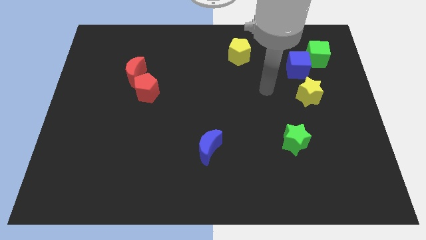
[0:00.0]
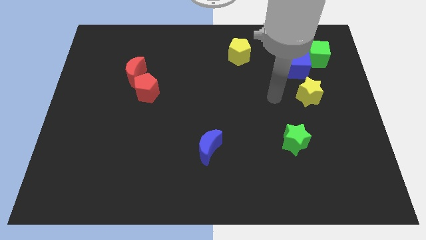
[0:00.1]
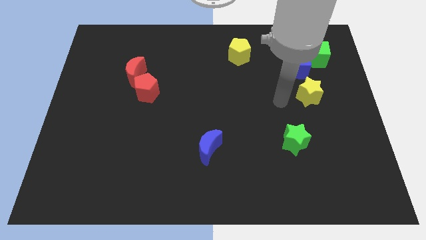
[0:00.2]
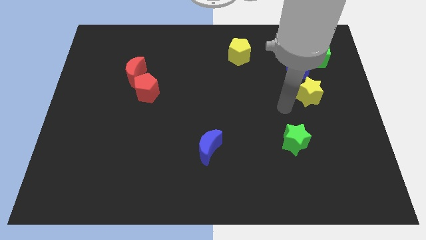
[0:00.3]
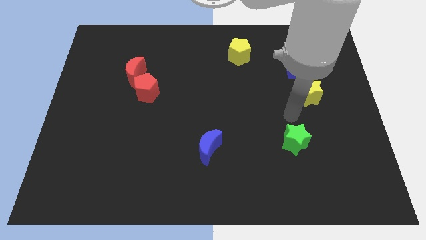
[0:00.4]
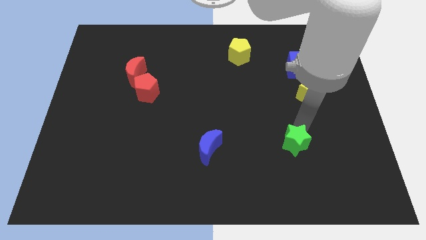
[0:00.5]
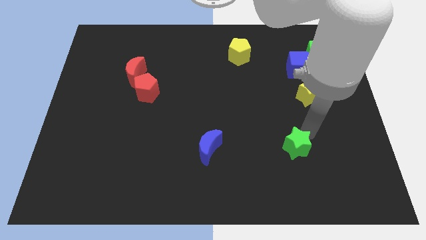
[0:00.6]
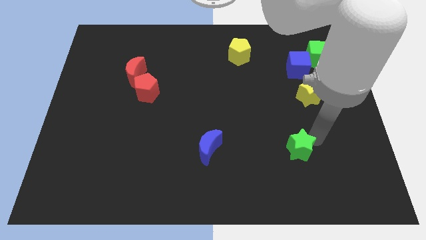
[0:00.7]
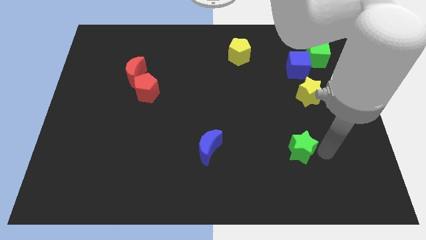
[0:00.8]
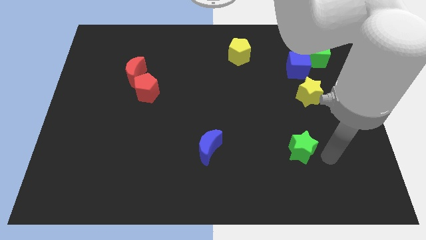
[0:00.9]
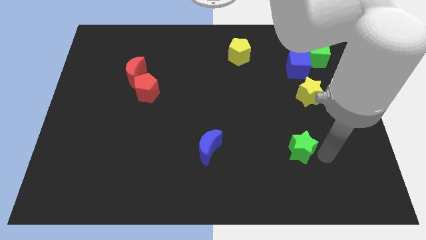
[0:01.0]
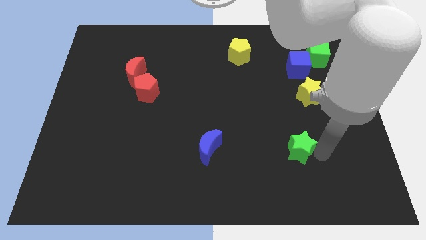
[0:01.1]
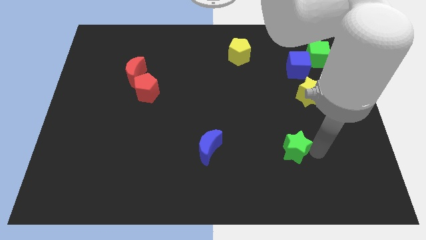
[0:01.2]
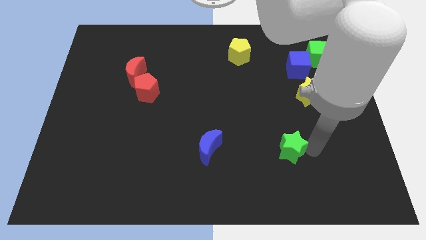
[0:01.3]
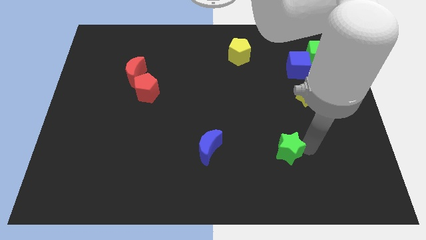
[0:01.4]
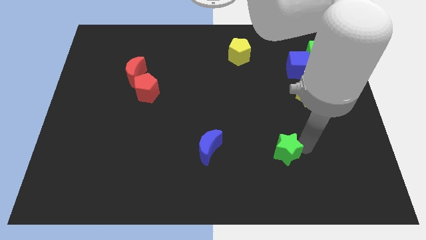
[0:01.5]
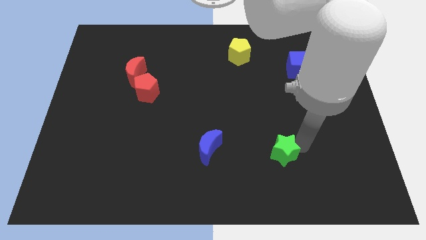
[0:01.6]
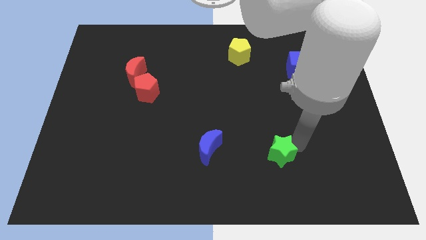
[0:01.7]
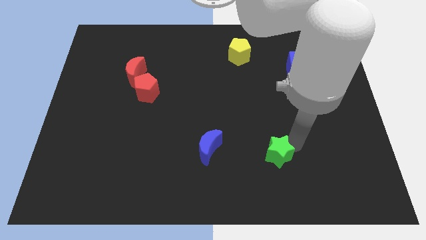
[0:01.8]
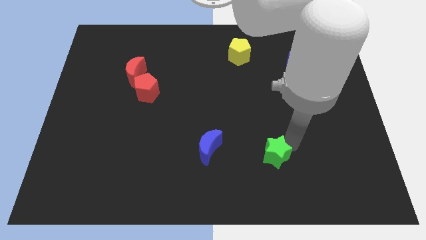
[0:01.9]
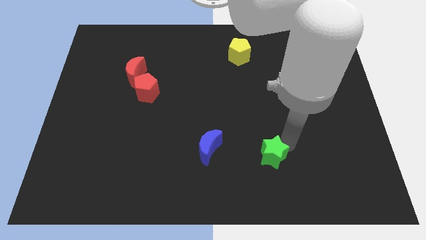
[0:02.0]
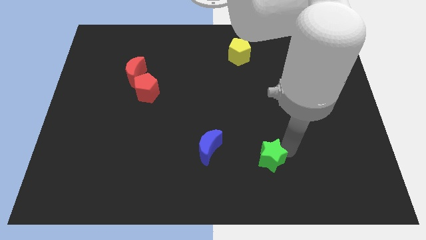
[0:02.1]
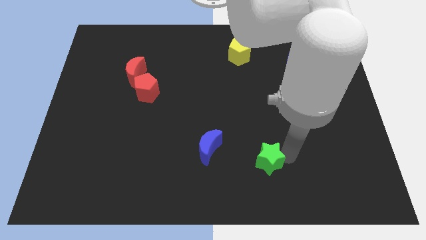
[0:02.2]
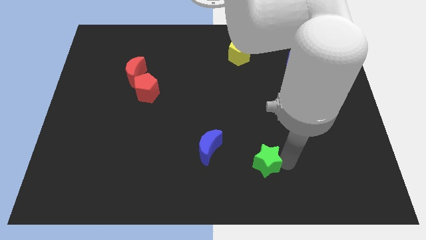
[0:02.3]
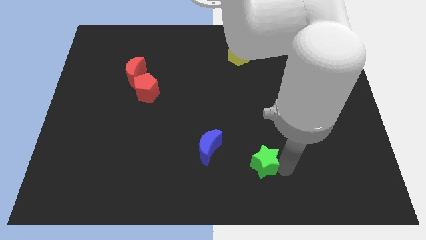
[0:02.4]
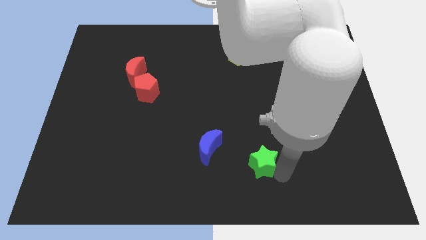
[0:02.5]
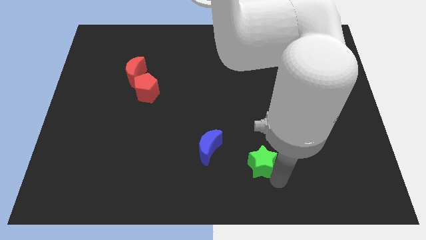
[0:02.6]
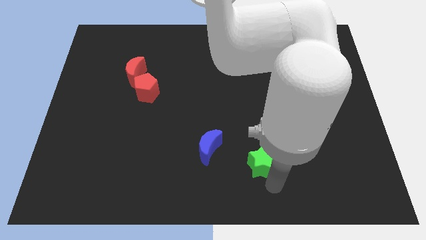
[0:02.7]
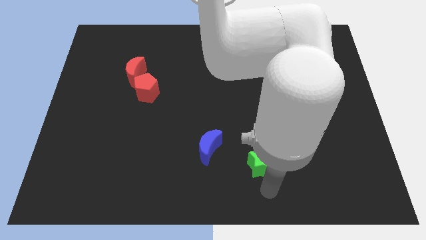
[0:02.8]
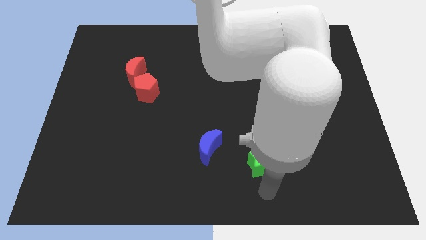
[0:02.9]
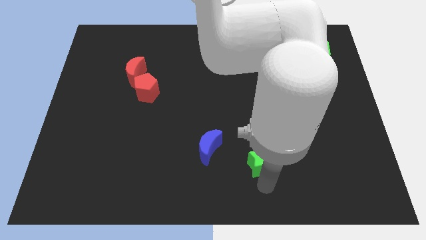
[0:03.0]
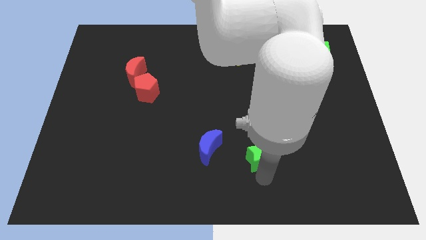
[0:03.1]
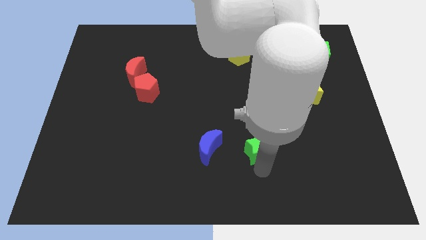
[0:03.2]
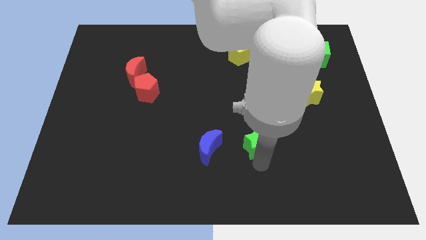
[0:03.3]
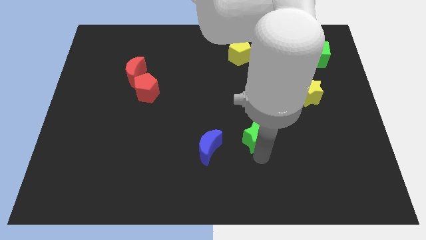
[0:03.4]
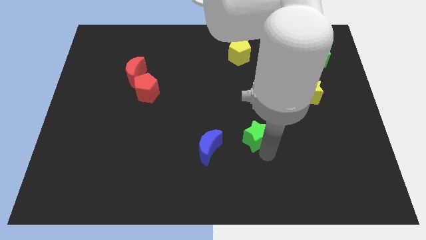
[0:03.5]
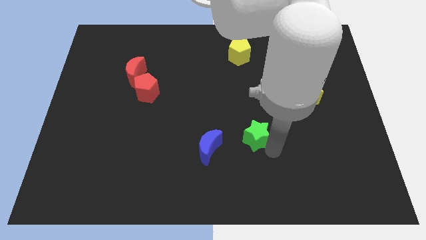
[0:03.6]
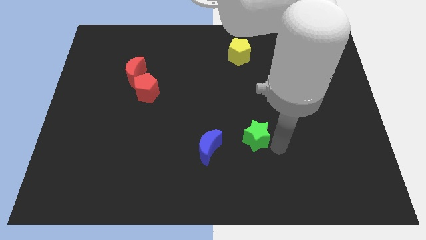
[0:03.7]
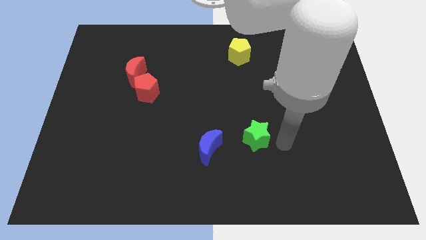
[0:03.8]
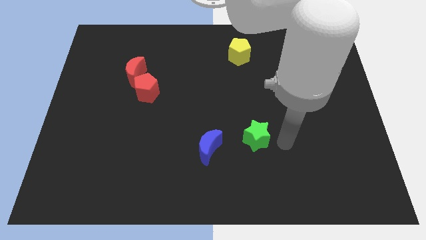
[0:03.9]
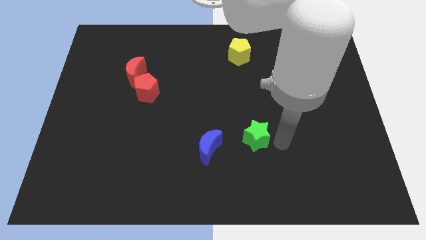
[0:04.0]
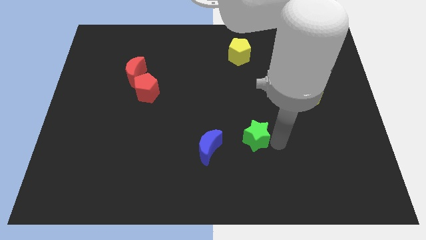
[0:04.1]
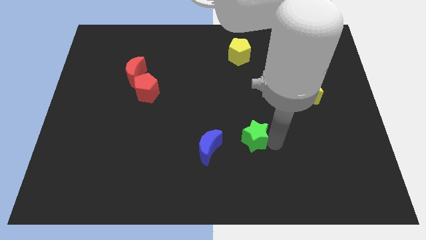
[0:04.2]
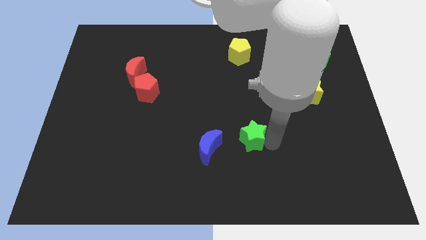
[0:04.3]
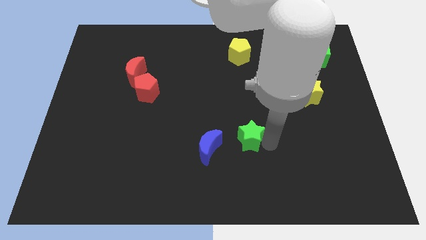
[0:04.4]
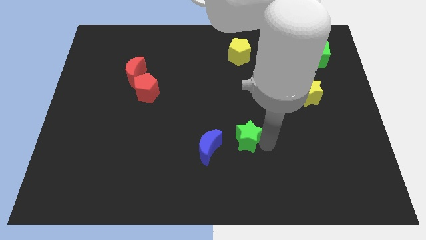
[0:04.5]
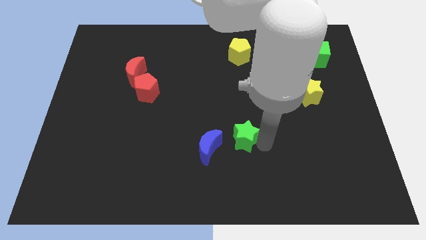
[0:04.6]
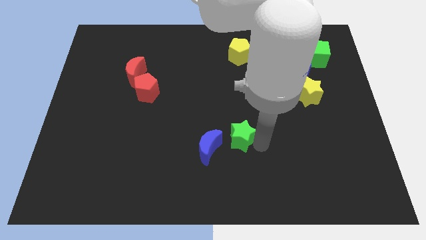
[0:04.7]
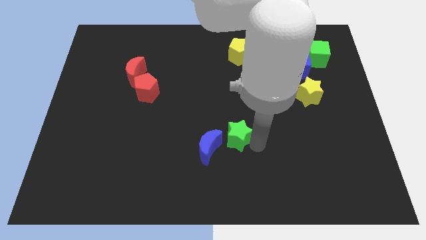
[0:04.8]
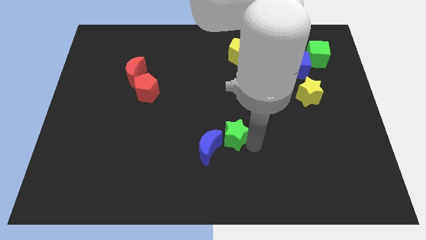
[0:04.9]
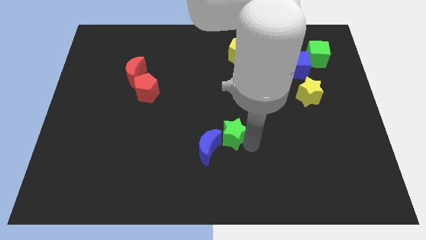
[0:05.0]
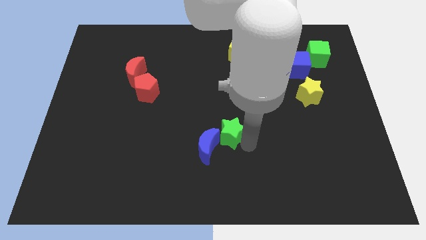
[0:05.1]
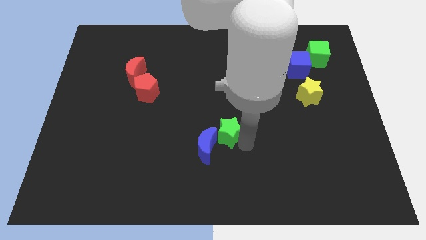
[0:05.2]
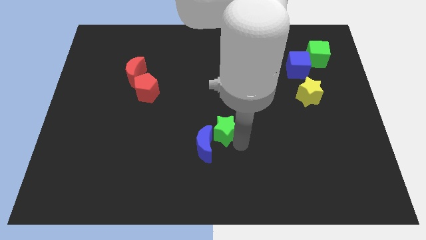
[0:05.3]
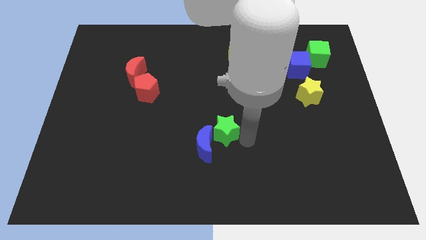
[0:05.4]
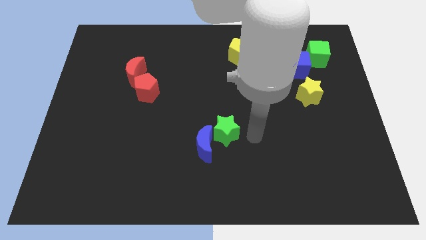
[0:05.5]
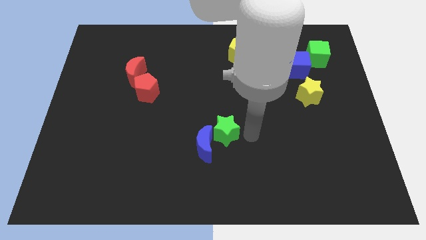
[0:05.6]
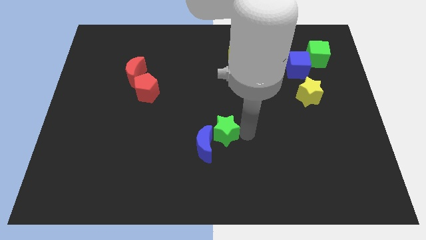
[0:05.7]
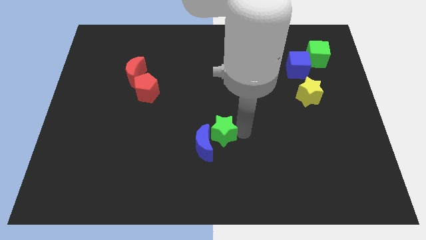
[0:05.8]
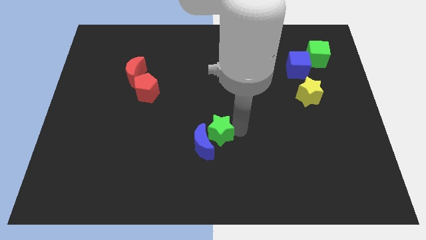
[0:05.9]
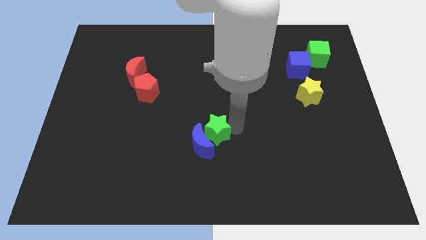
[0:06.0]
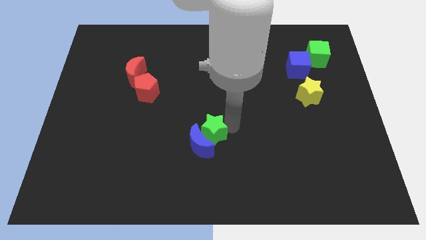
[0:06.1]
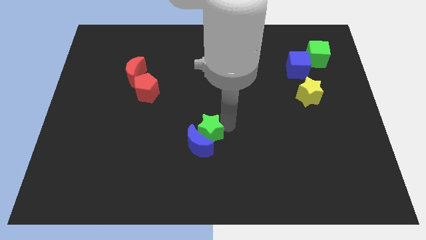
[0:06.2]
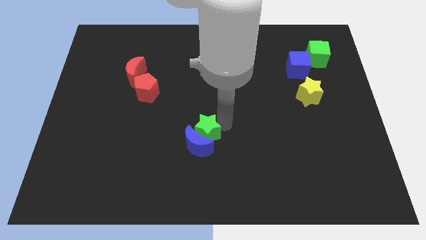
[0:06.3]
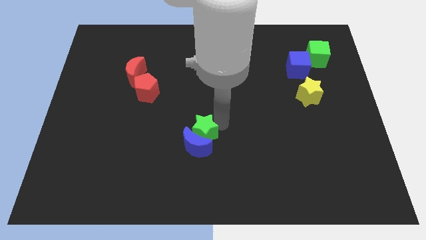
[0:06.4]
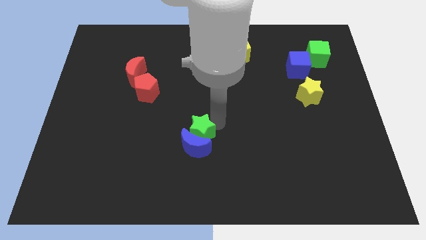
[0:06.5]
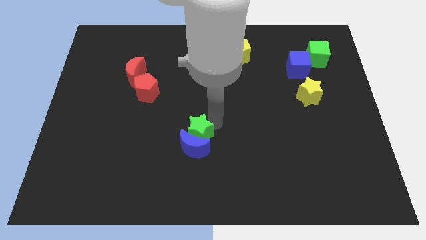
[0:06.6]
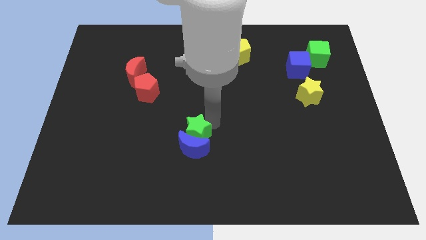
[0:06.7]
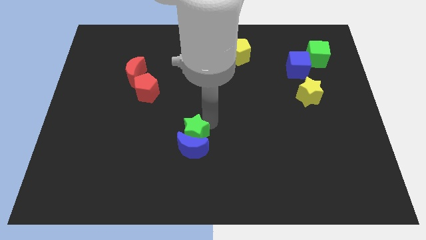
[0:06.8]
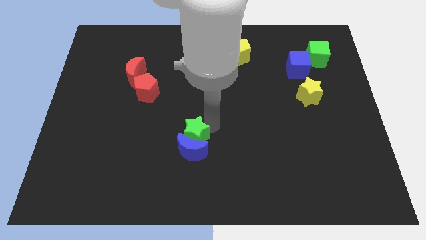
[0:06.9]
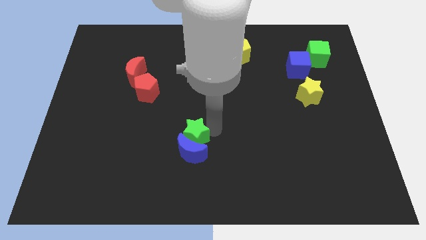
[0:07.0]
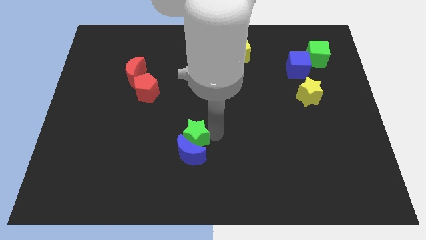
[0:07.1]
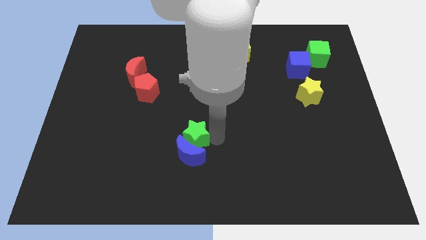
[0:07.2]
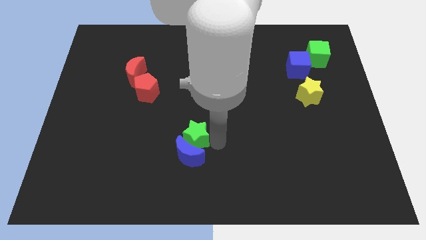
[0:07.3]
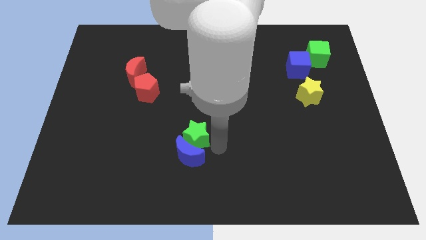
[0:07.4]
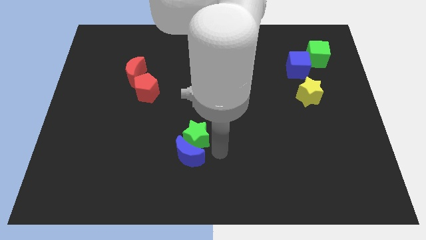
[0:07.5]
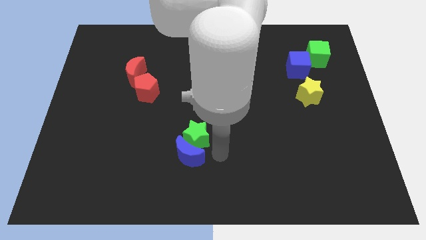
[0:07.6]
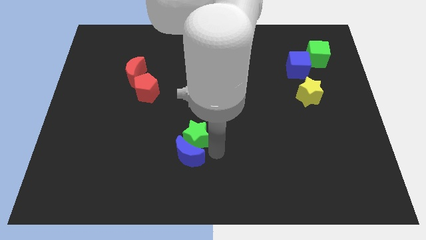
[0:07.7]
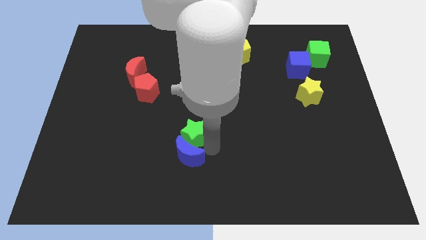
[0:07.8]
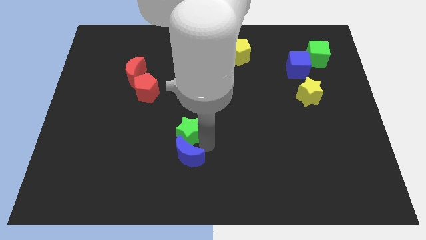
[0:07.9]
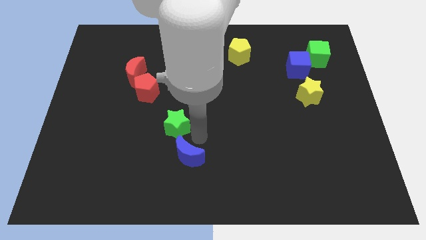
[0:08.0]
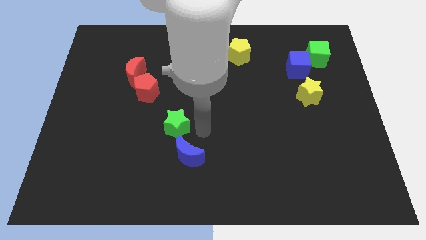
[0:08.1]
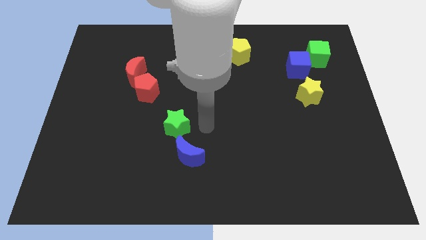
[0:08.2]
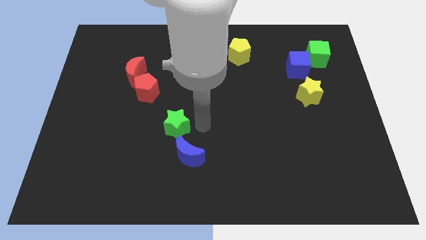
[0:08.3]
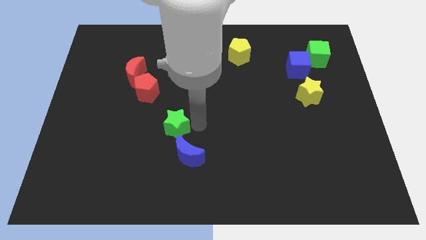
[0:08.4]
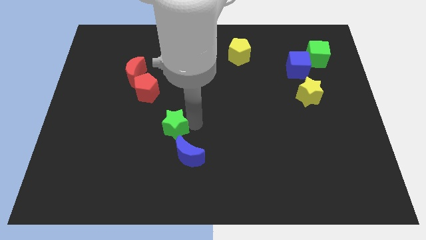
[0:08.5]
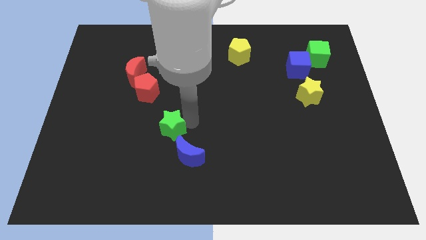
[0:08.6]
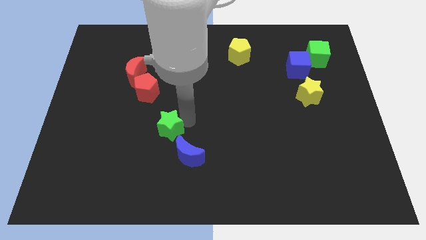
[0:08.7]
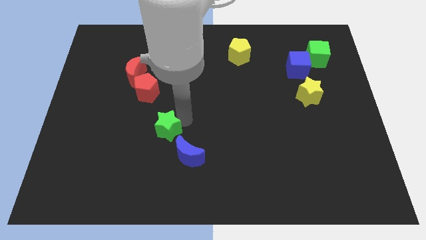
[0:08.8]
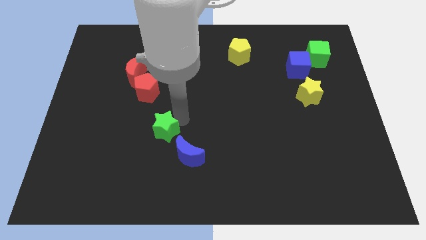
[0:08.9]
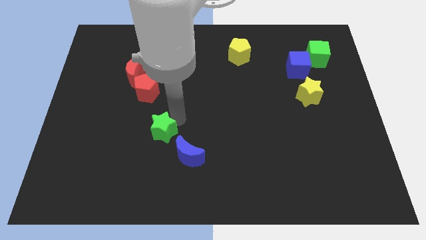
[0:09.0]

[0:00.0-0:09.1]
move the green star to the bottom of the red pentagon
